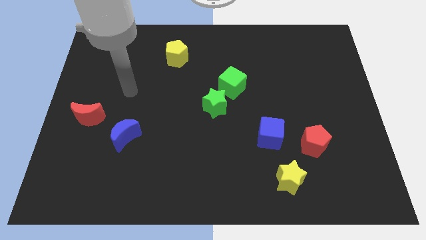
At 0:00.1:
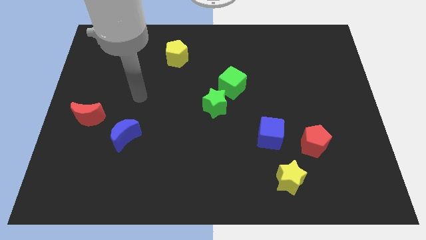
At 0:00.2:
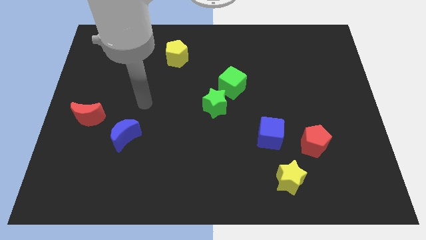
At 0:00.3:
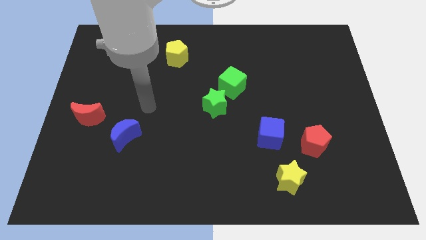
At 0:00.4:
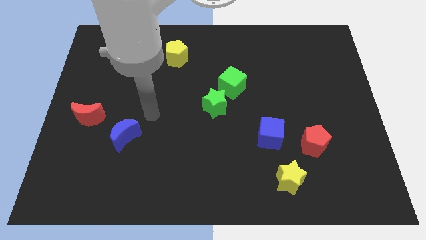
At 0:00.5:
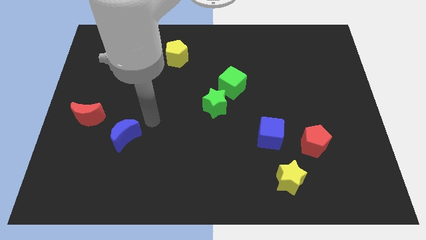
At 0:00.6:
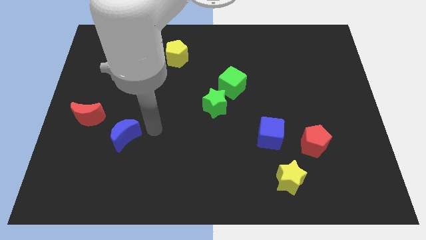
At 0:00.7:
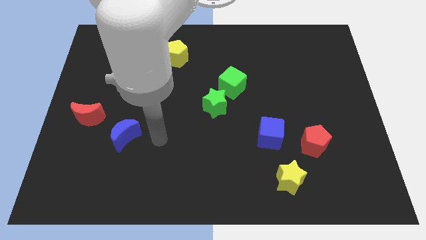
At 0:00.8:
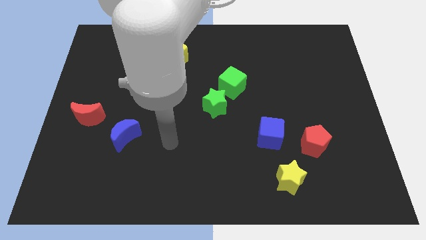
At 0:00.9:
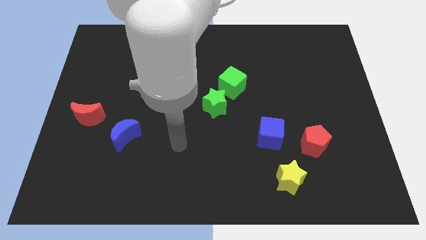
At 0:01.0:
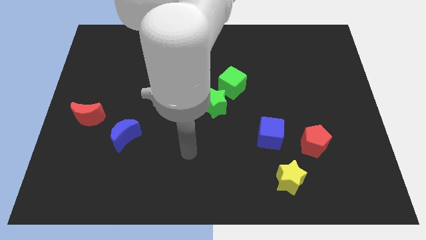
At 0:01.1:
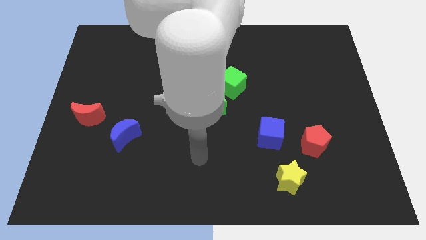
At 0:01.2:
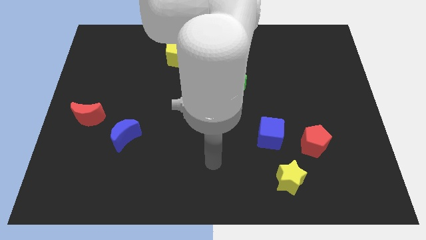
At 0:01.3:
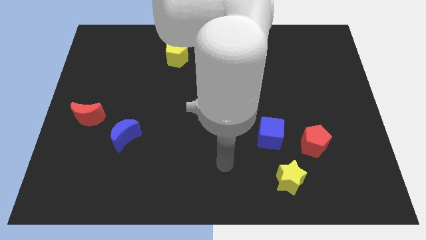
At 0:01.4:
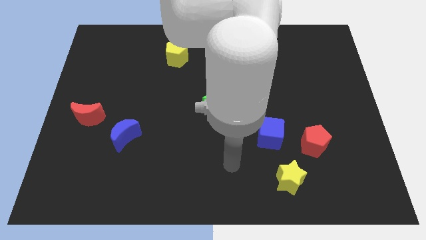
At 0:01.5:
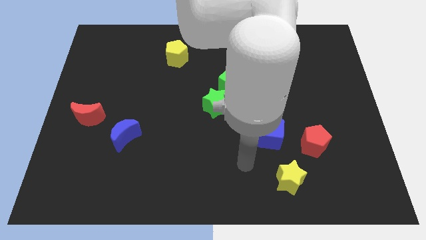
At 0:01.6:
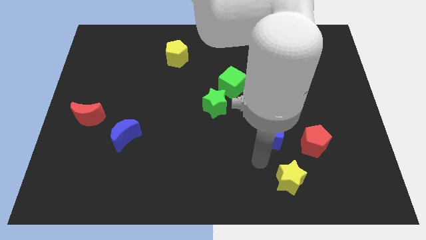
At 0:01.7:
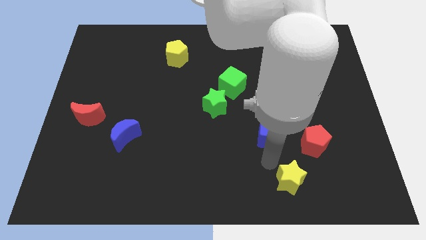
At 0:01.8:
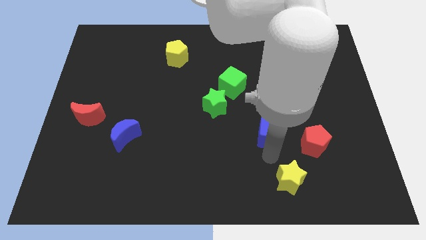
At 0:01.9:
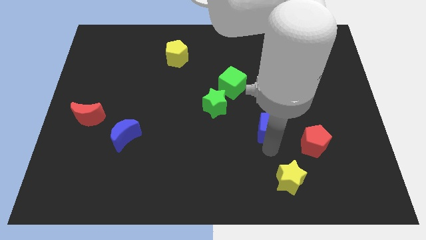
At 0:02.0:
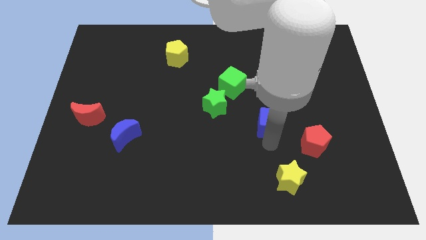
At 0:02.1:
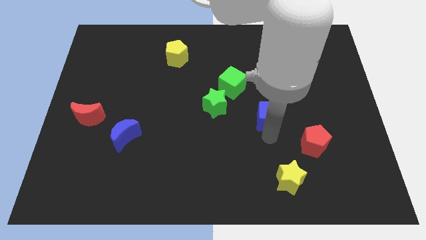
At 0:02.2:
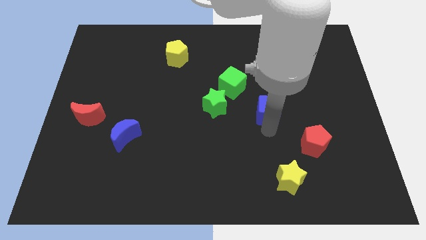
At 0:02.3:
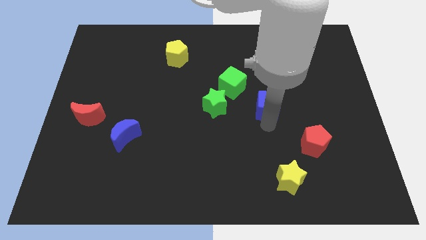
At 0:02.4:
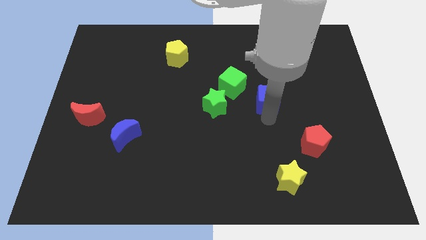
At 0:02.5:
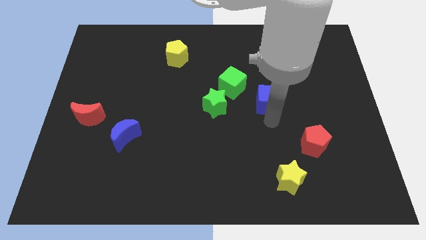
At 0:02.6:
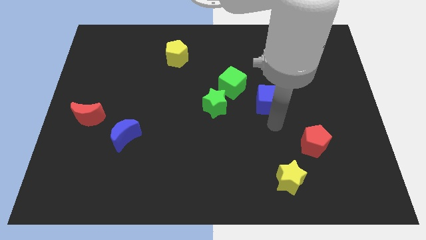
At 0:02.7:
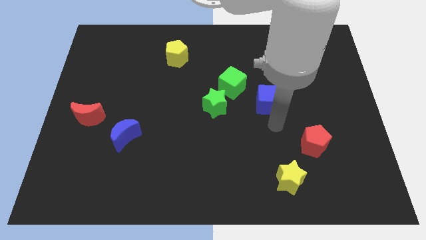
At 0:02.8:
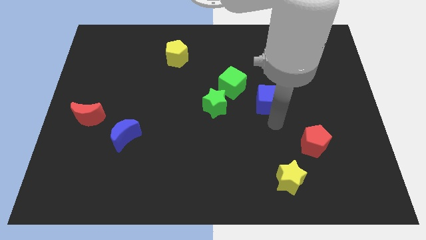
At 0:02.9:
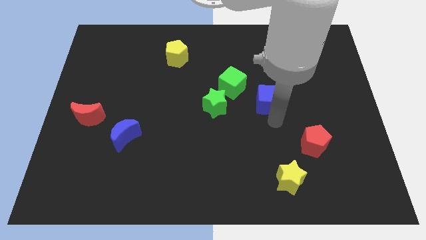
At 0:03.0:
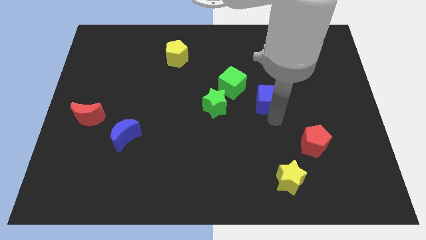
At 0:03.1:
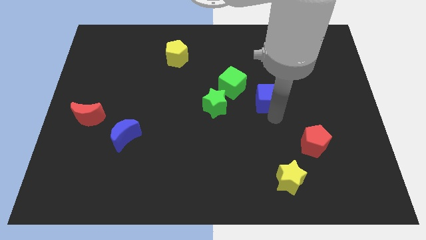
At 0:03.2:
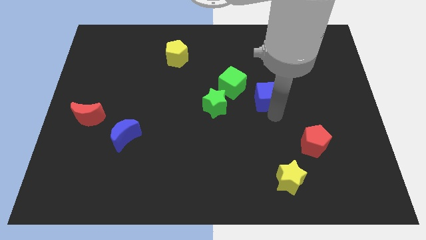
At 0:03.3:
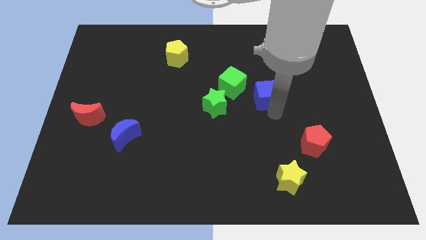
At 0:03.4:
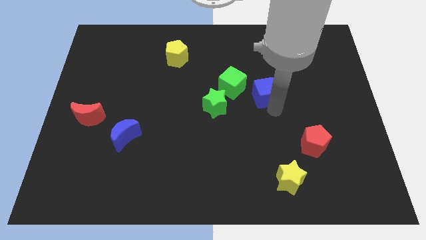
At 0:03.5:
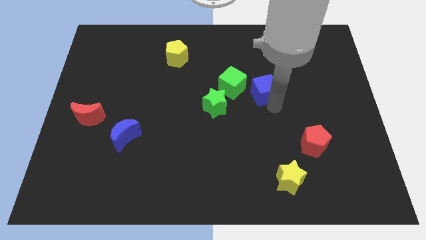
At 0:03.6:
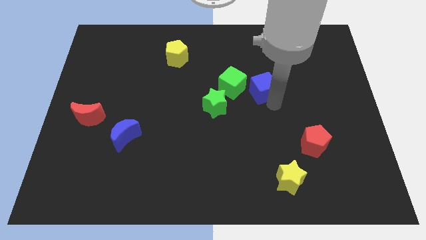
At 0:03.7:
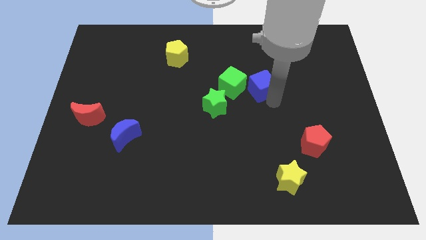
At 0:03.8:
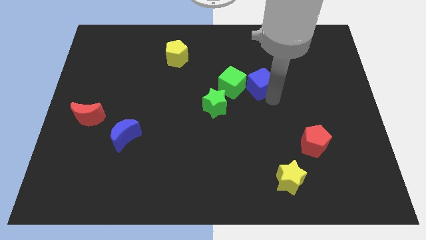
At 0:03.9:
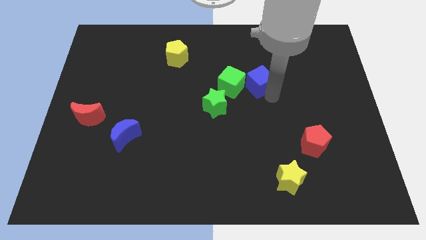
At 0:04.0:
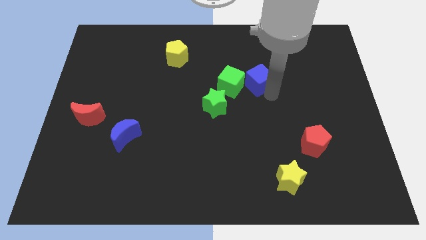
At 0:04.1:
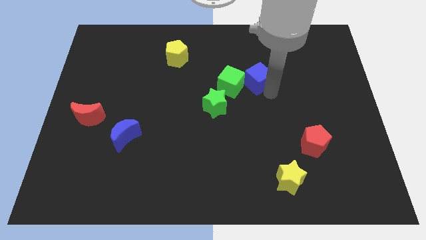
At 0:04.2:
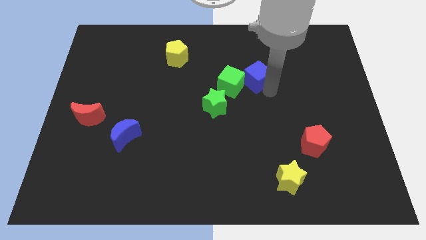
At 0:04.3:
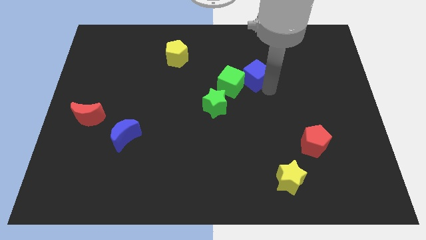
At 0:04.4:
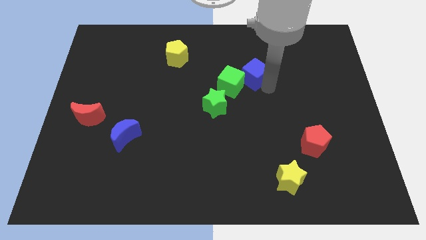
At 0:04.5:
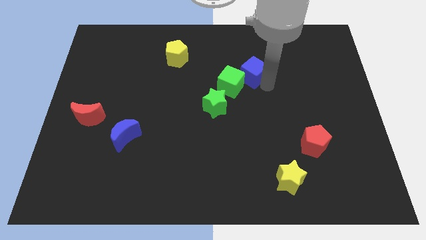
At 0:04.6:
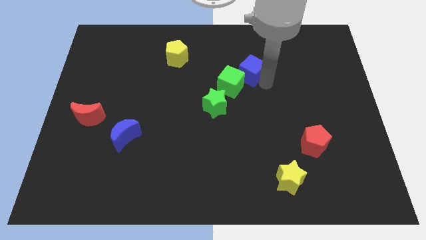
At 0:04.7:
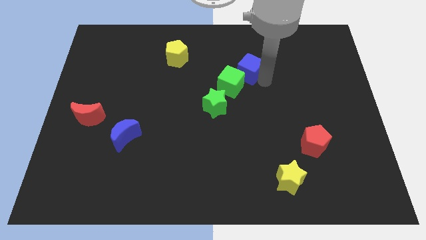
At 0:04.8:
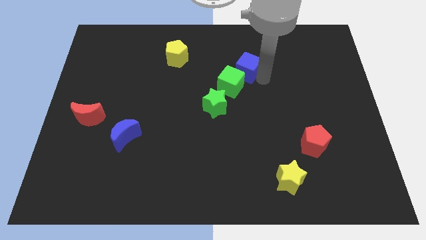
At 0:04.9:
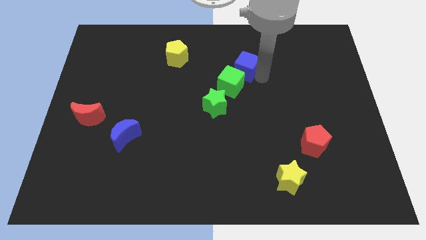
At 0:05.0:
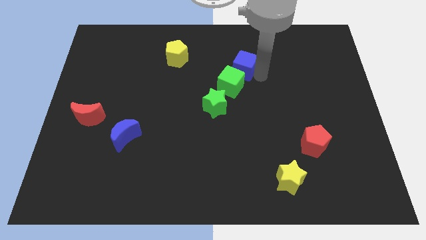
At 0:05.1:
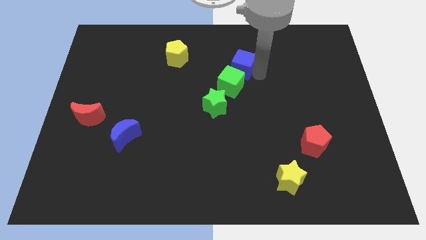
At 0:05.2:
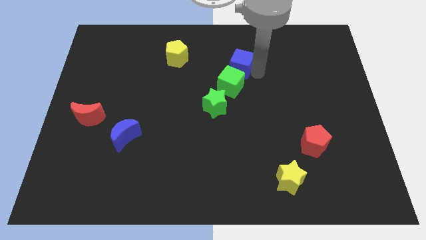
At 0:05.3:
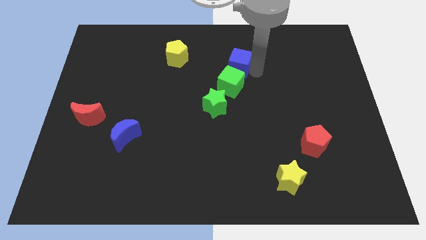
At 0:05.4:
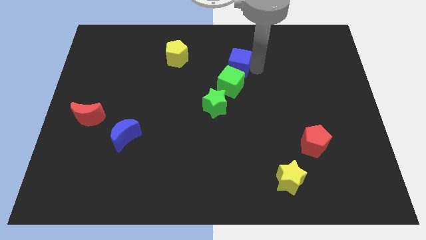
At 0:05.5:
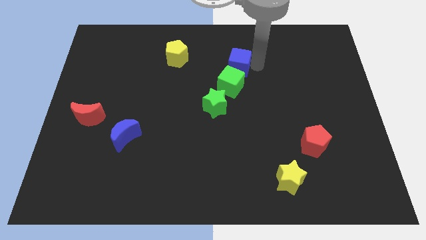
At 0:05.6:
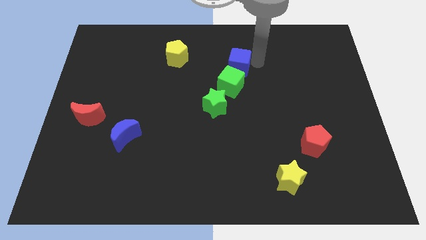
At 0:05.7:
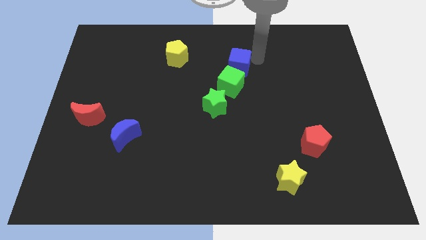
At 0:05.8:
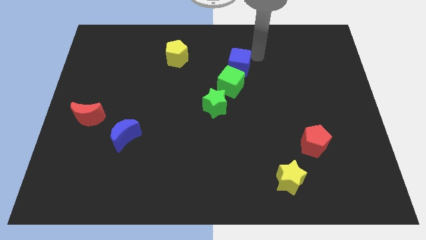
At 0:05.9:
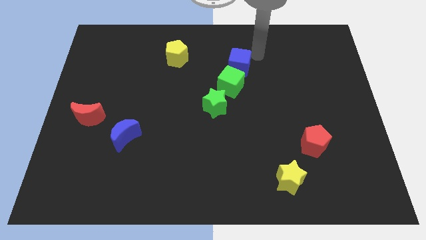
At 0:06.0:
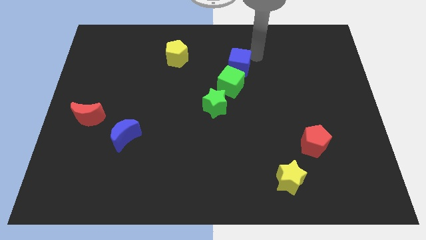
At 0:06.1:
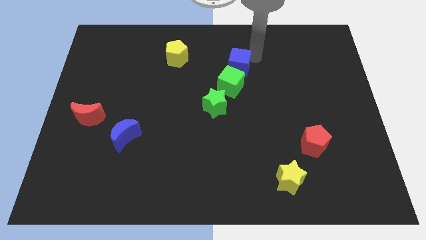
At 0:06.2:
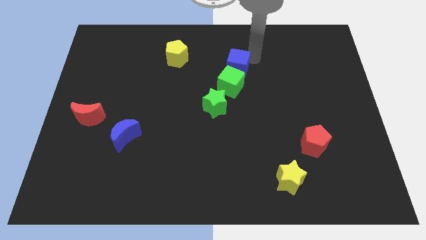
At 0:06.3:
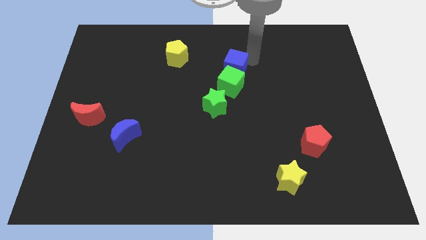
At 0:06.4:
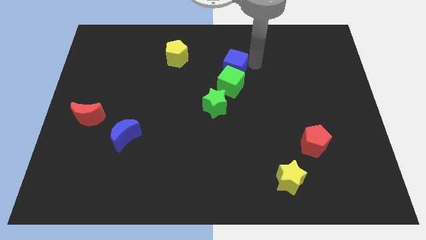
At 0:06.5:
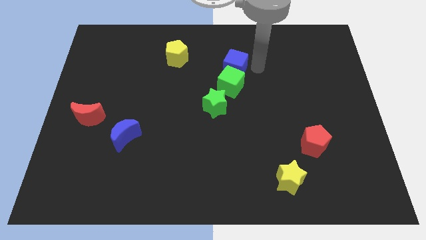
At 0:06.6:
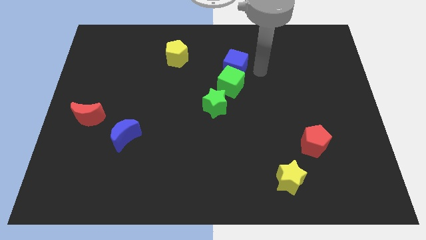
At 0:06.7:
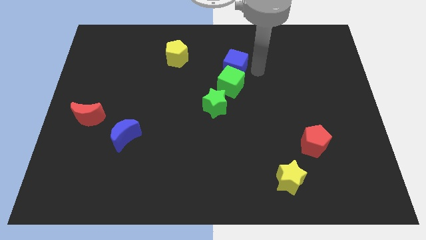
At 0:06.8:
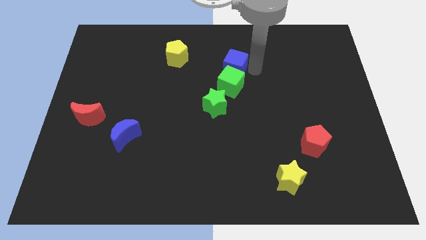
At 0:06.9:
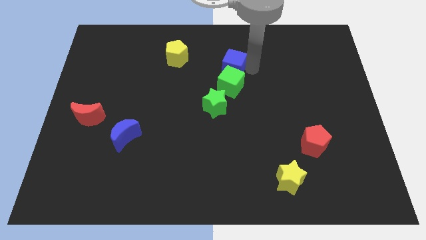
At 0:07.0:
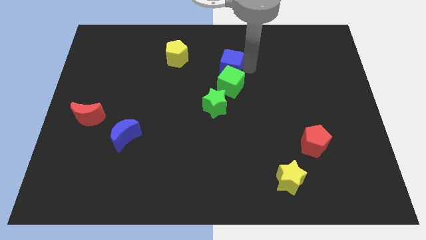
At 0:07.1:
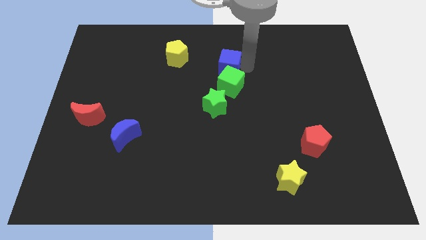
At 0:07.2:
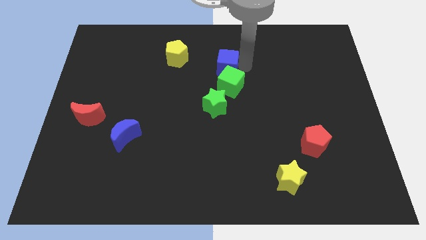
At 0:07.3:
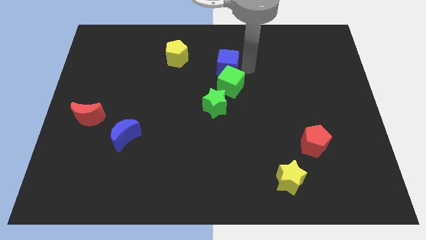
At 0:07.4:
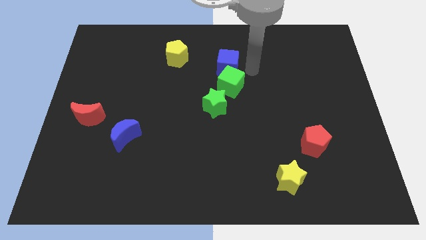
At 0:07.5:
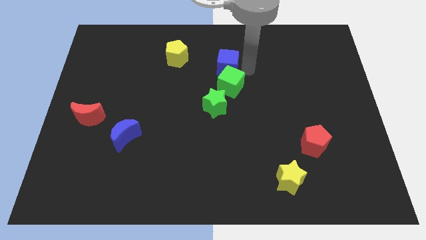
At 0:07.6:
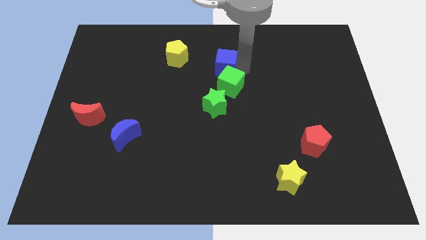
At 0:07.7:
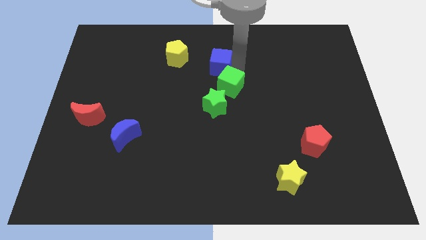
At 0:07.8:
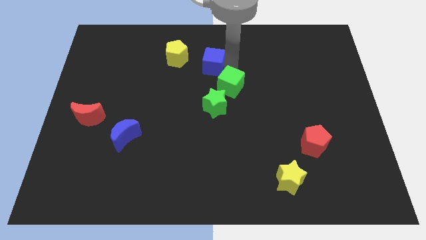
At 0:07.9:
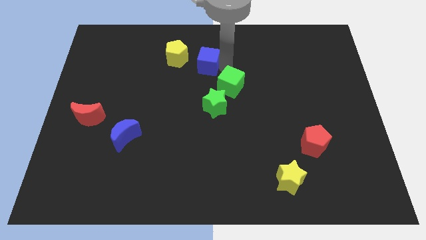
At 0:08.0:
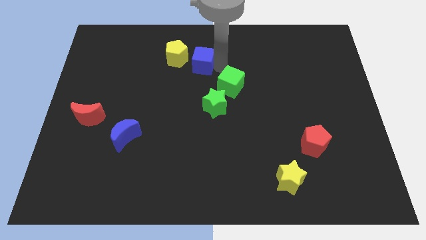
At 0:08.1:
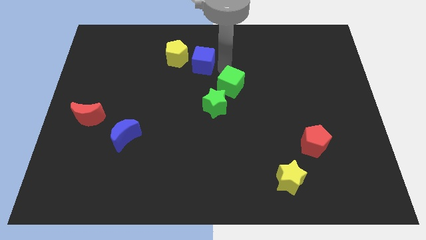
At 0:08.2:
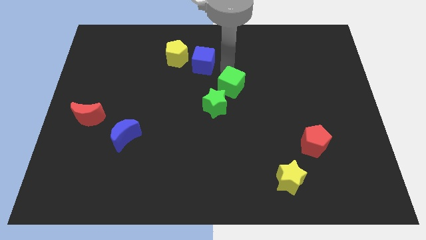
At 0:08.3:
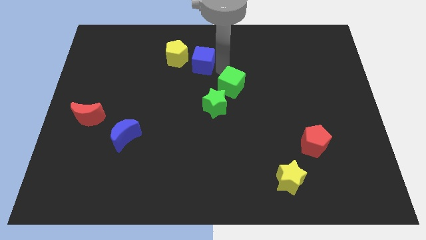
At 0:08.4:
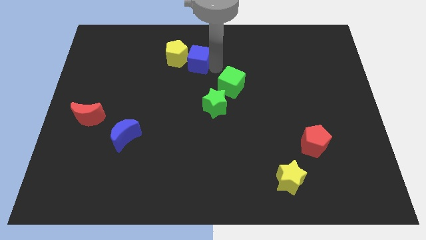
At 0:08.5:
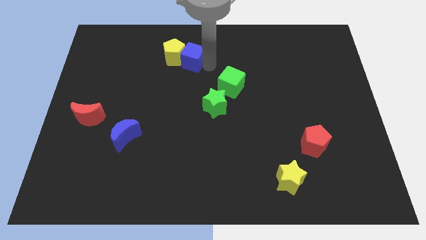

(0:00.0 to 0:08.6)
slide the blue cube to the yellow pentagon
